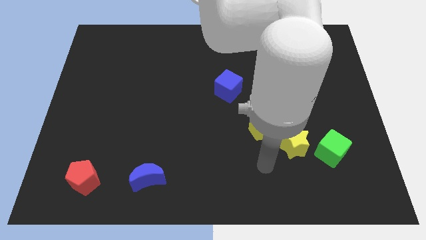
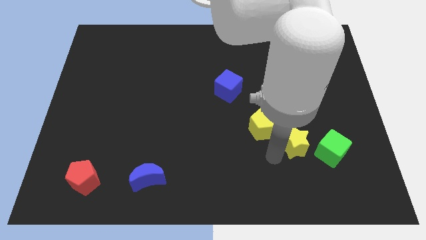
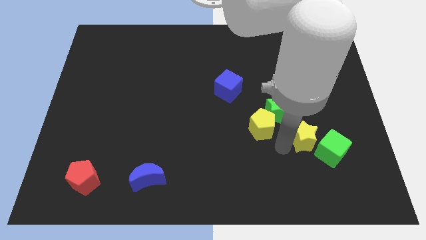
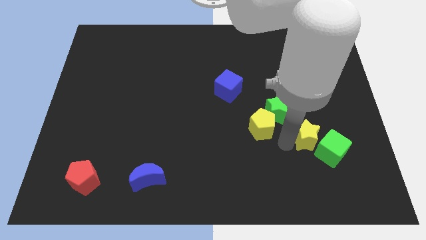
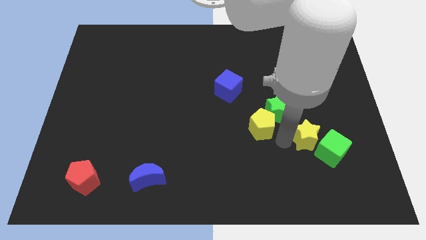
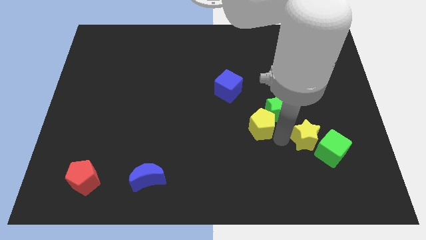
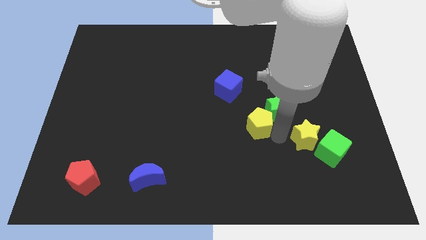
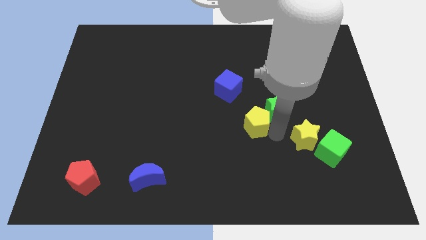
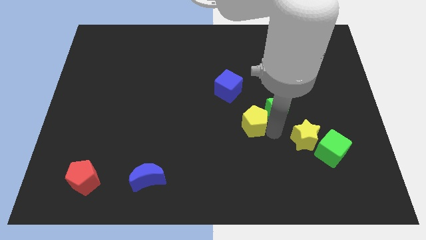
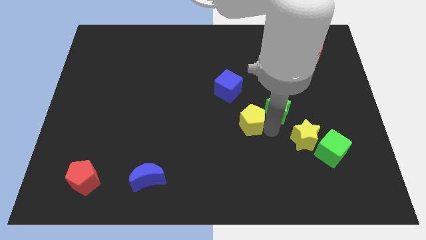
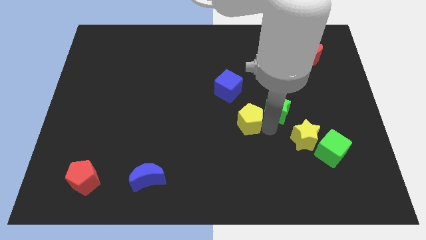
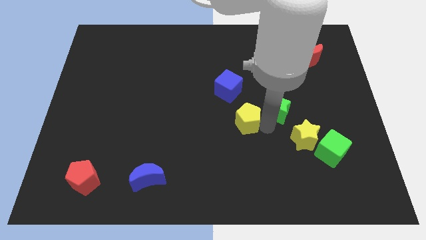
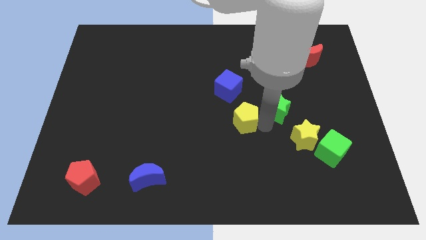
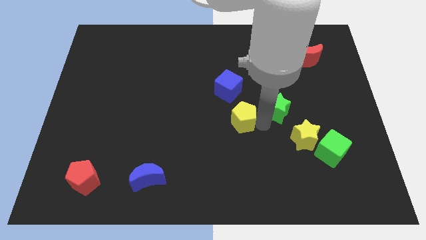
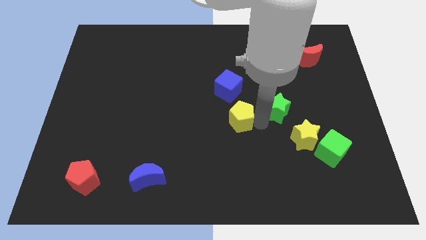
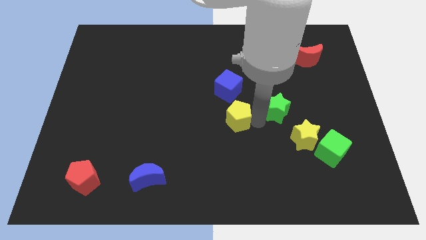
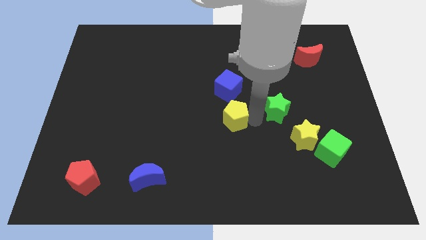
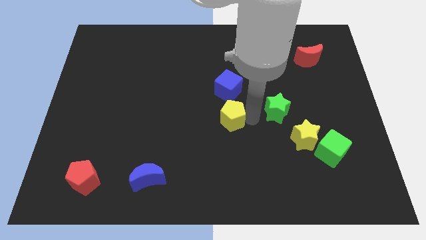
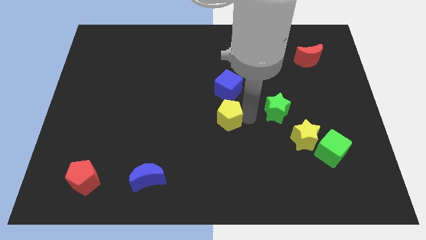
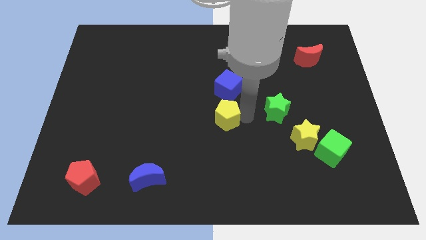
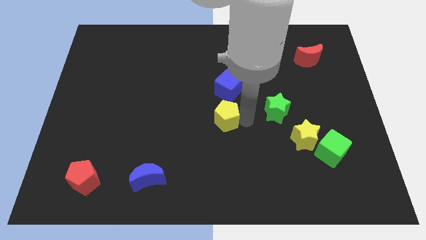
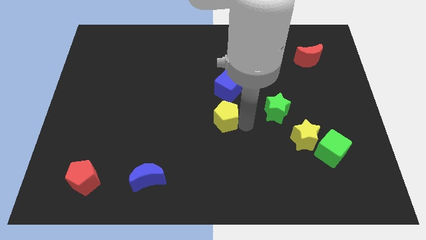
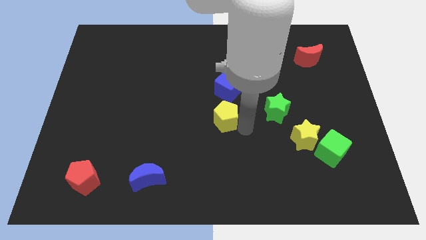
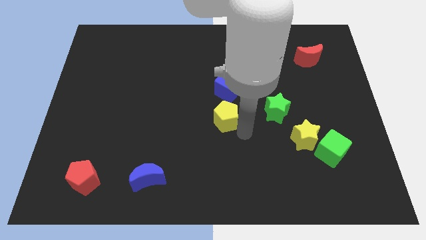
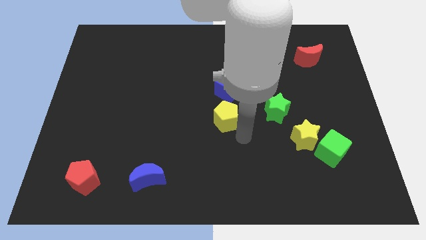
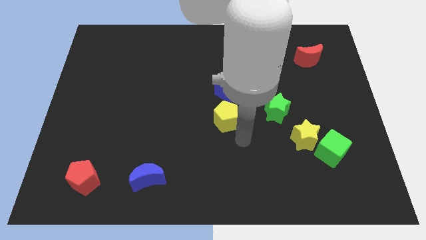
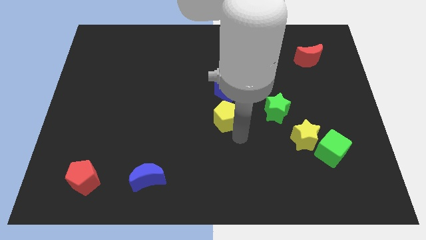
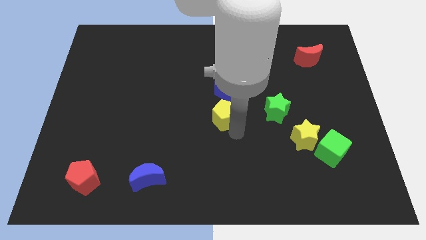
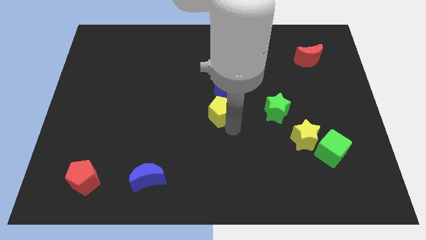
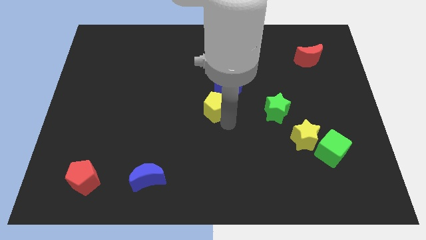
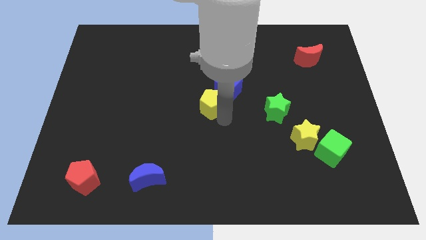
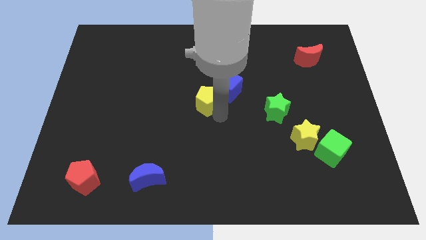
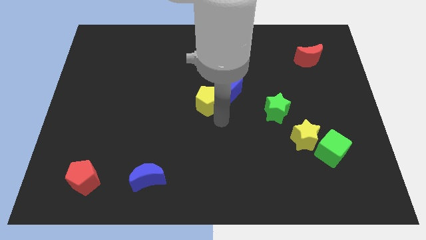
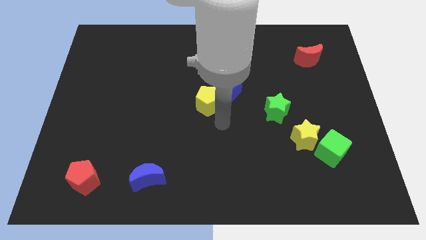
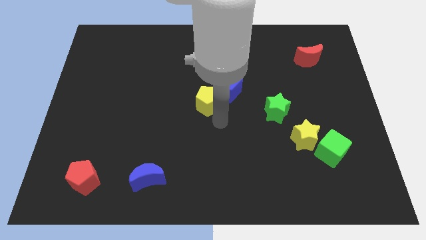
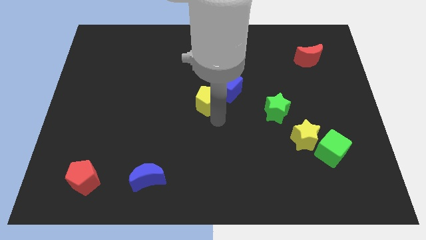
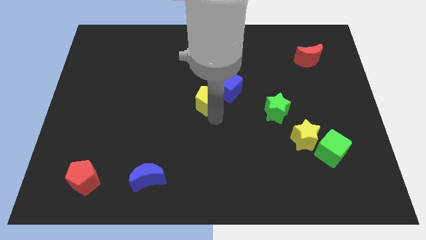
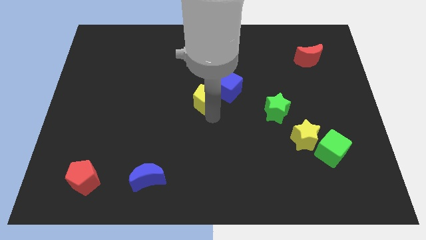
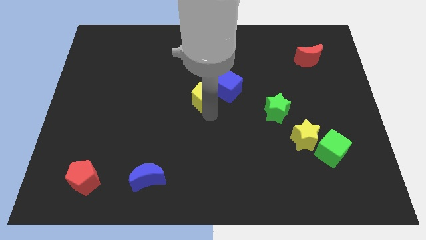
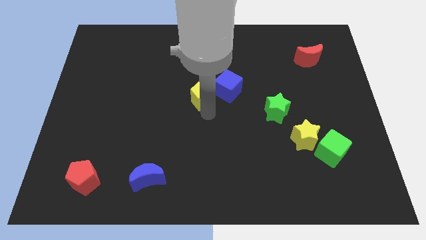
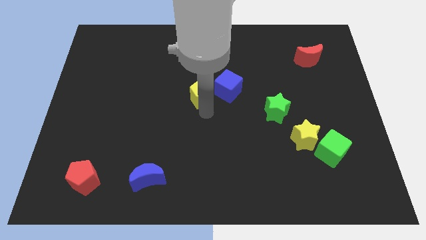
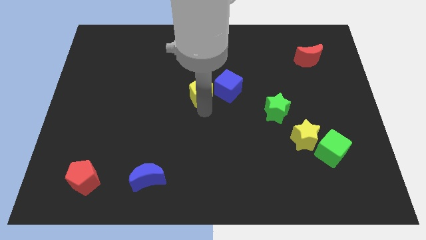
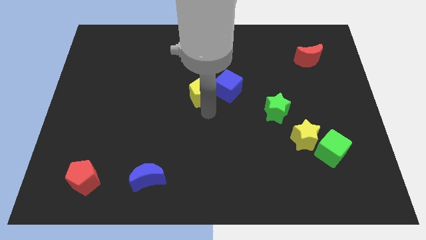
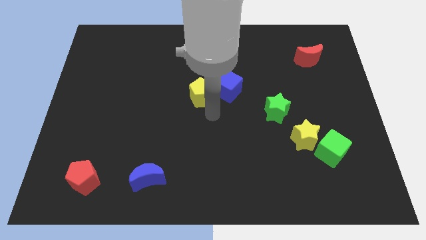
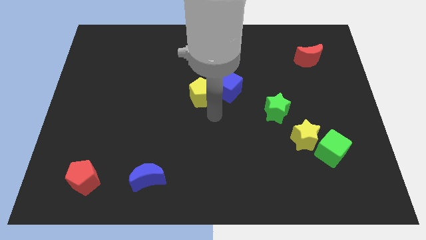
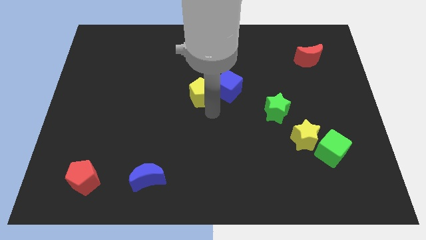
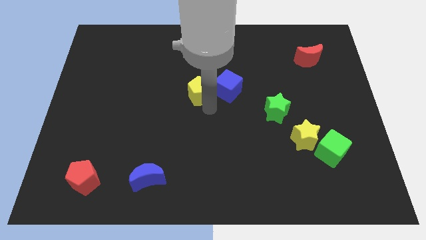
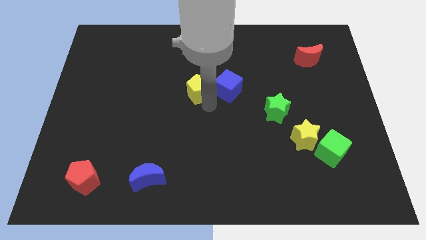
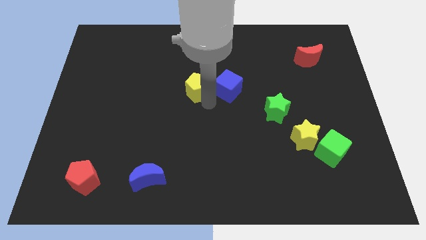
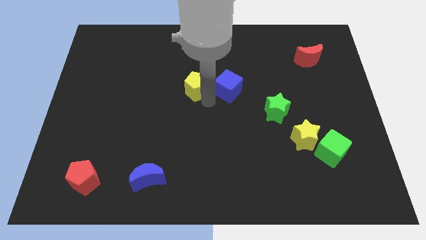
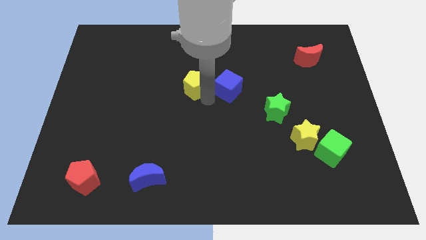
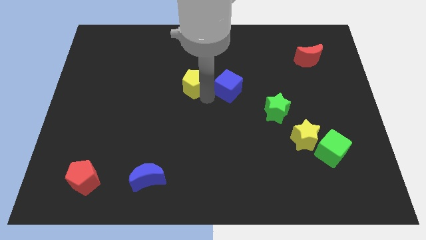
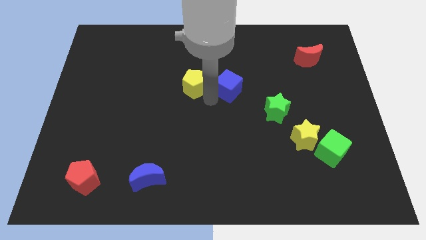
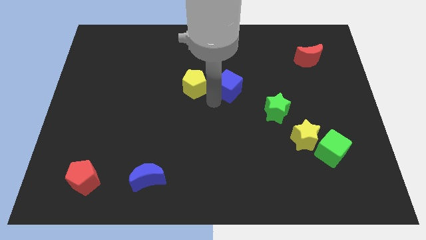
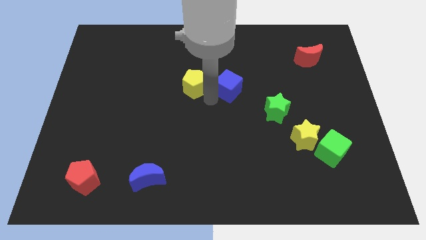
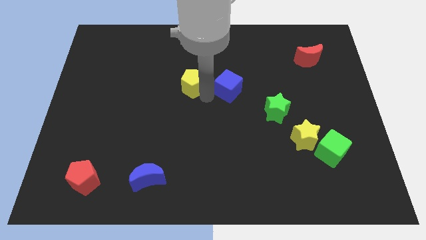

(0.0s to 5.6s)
move the yellow pentagon up and to the left diagonally

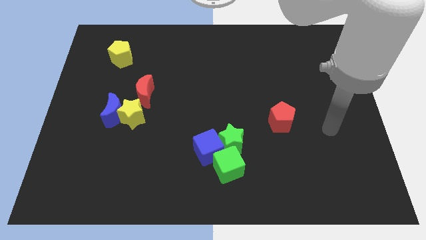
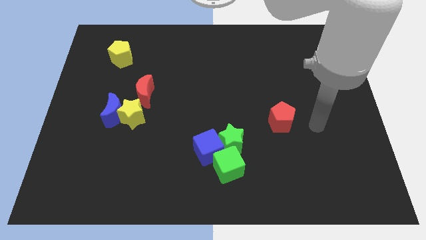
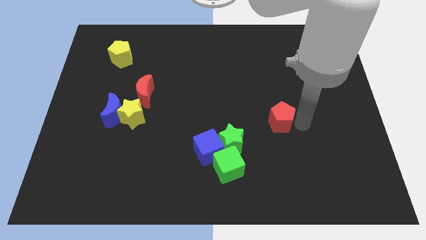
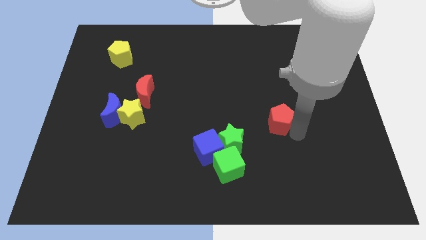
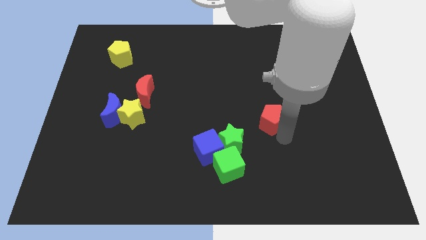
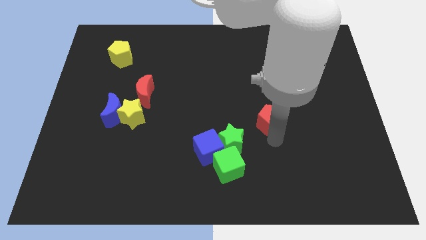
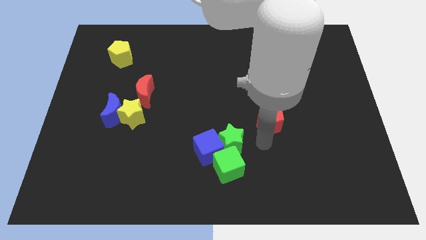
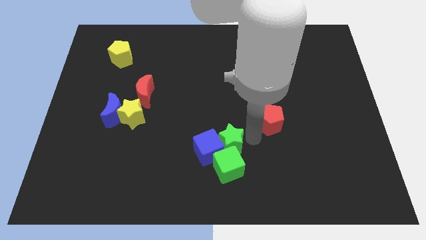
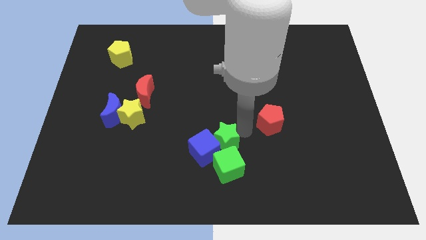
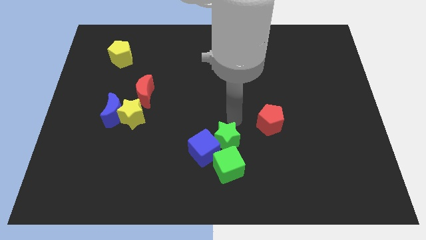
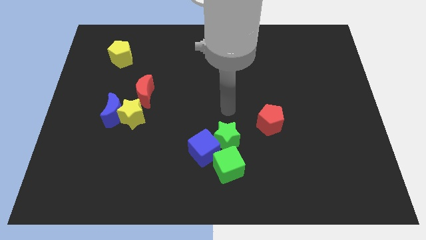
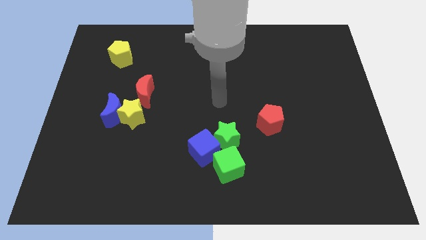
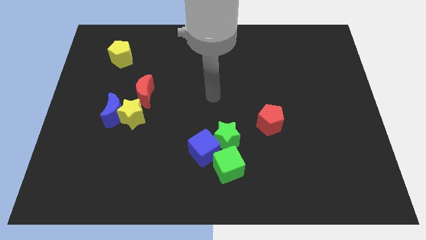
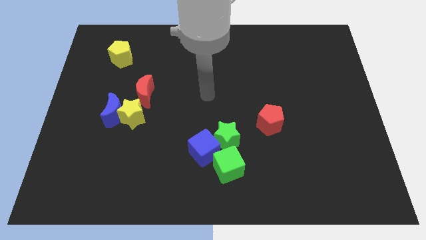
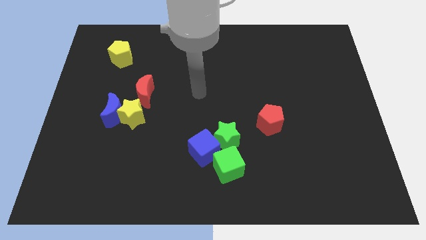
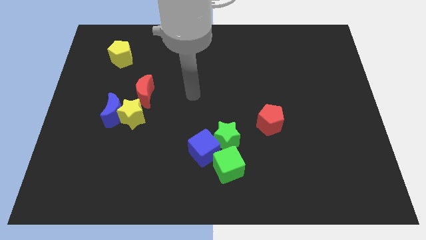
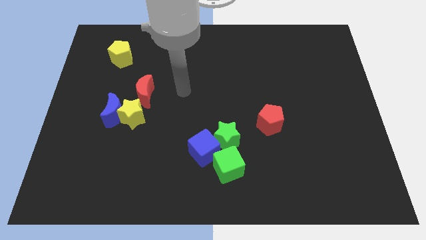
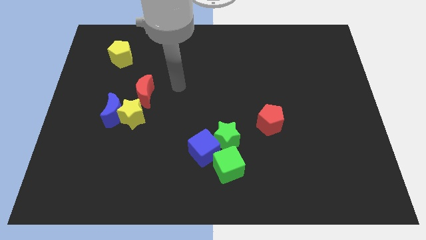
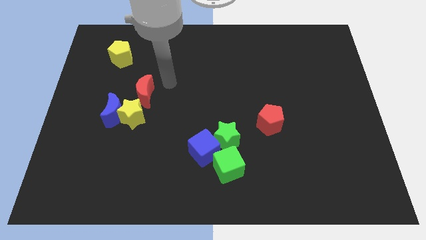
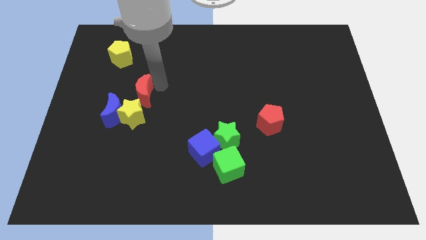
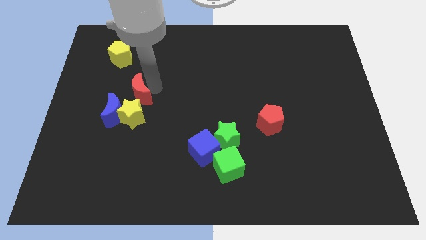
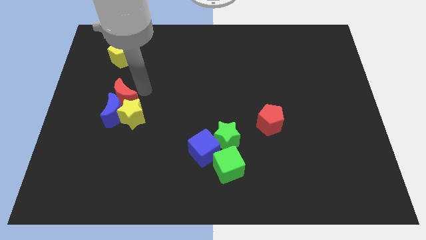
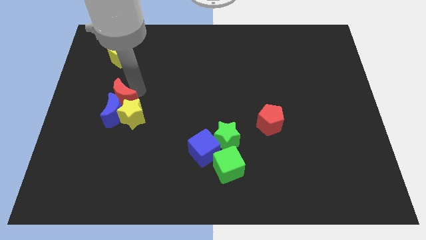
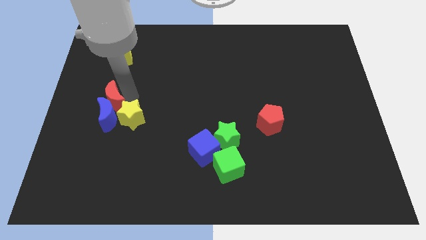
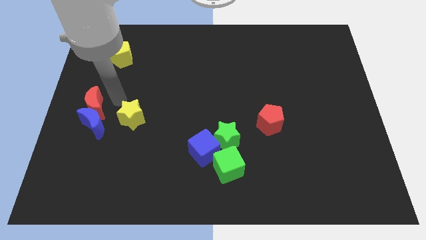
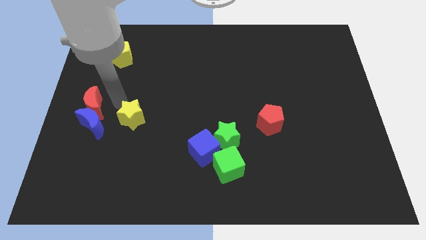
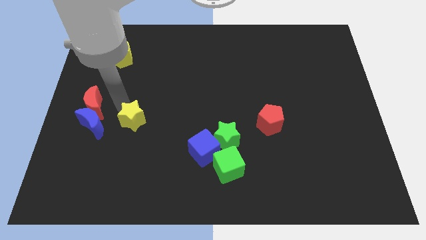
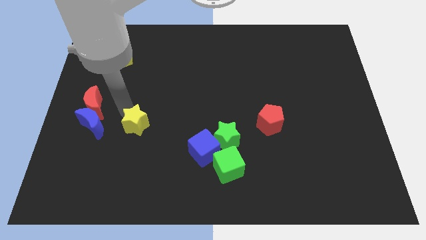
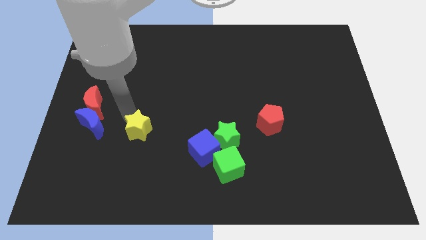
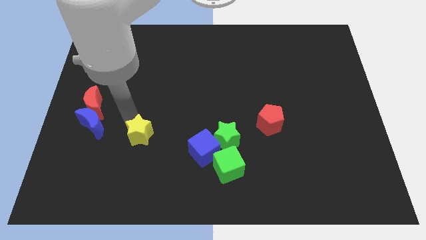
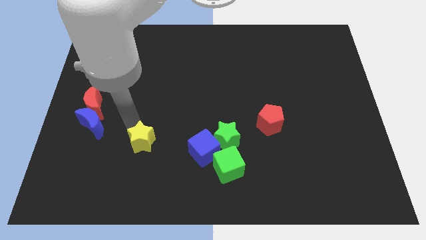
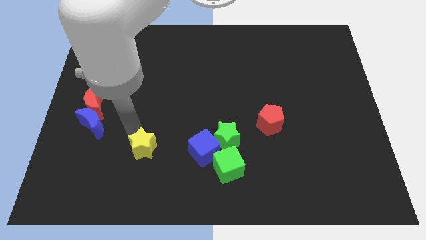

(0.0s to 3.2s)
slightly push the yellow star downwards and right diagonally
